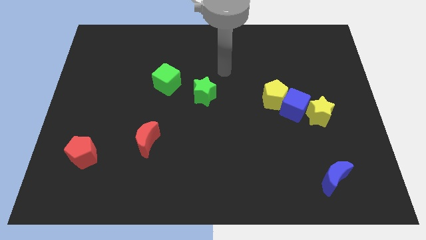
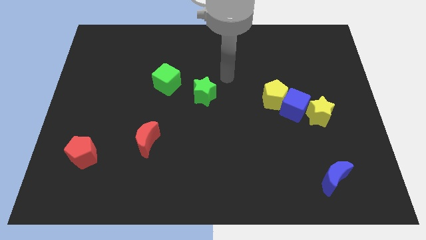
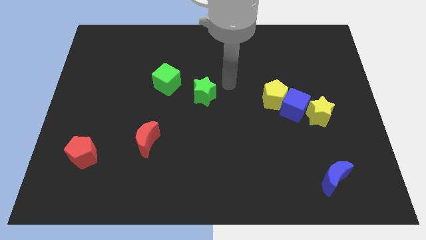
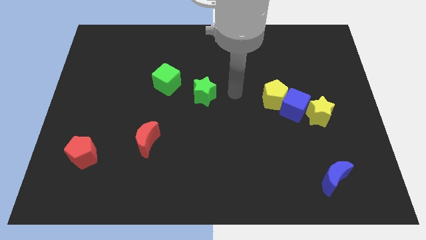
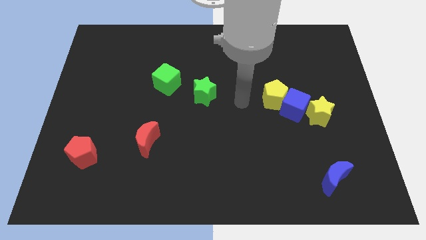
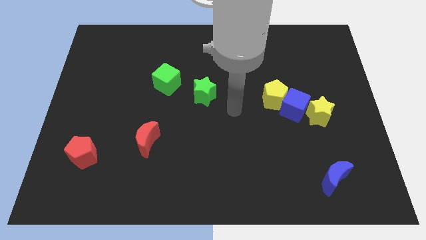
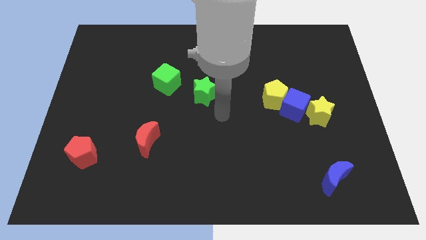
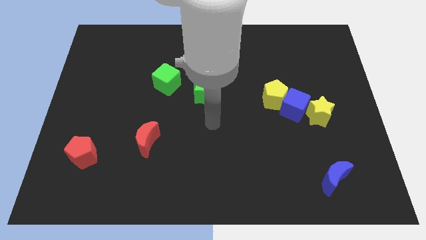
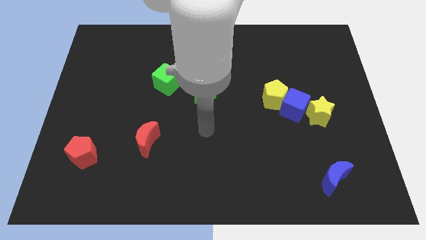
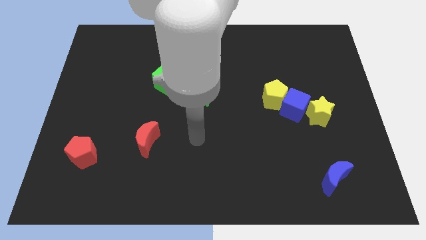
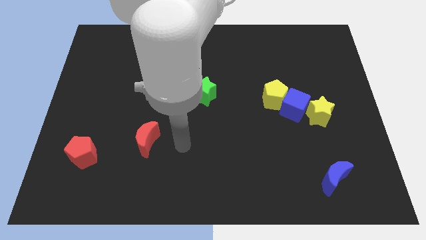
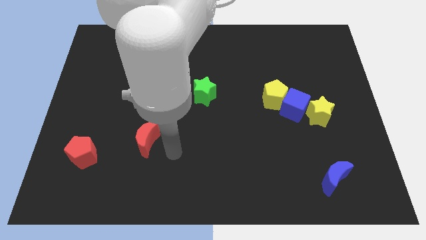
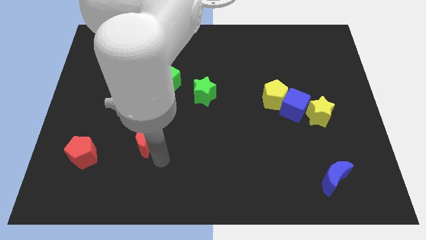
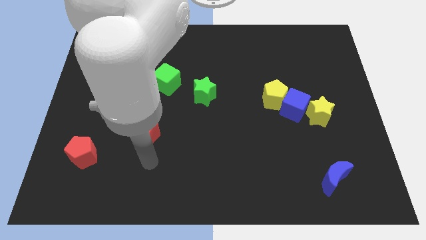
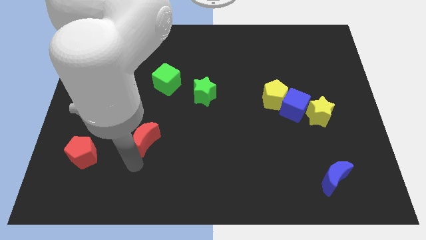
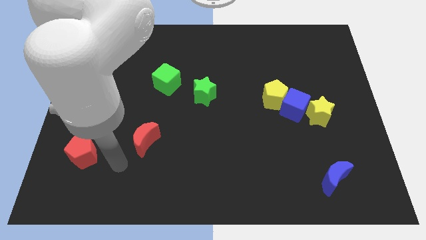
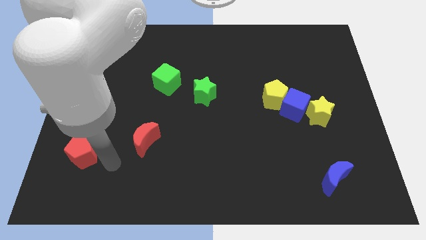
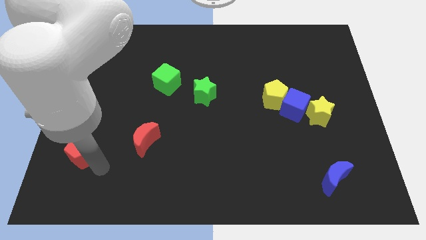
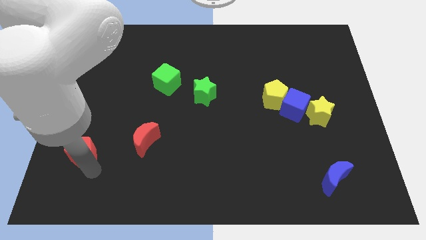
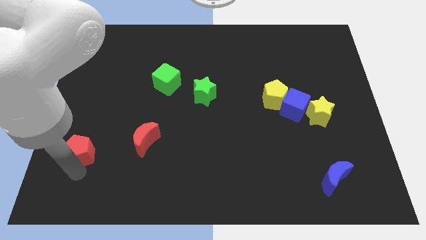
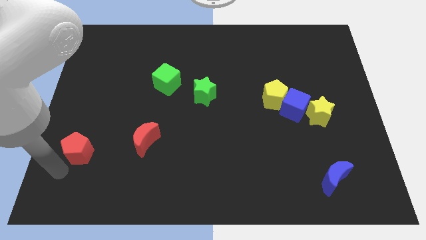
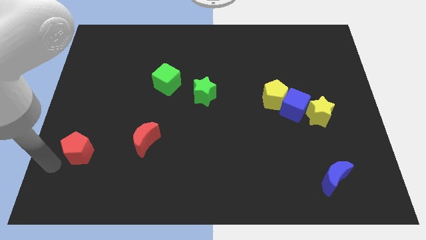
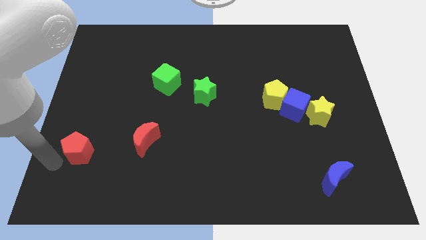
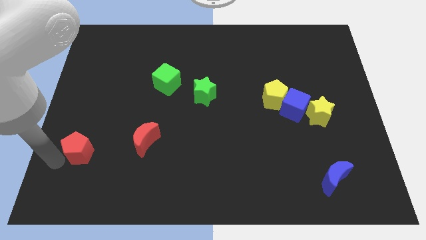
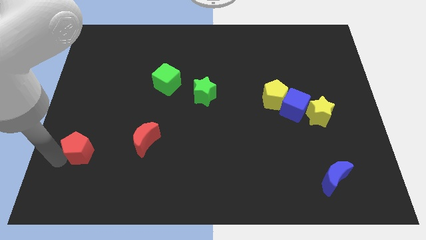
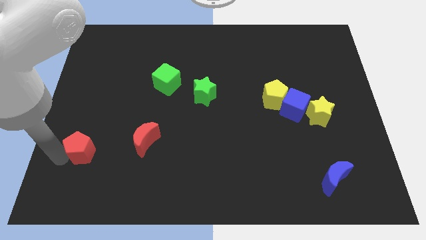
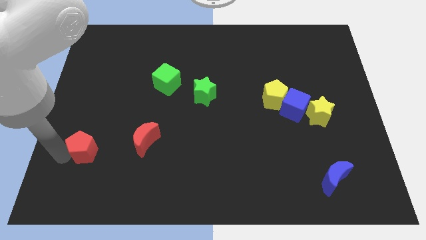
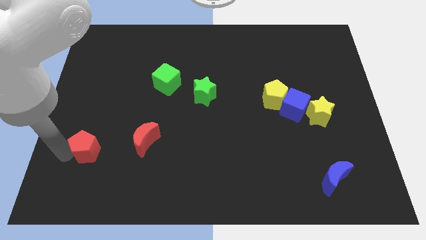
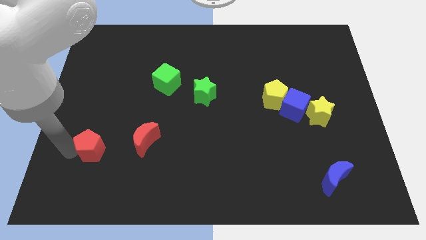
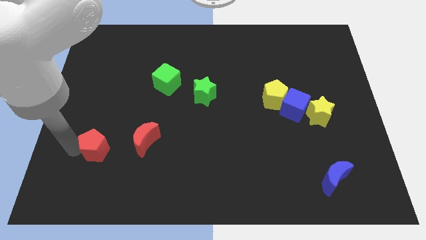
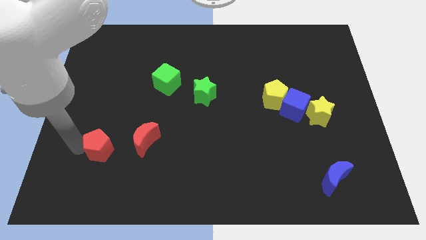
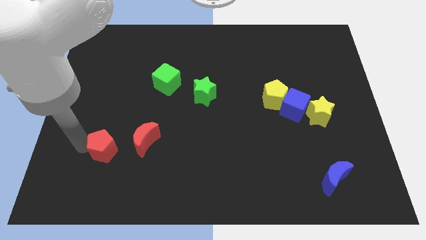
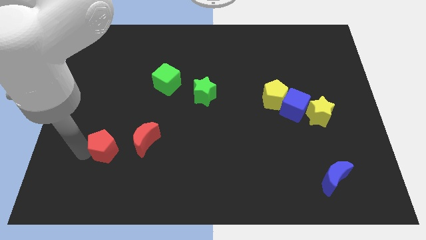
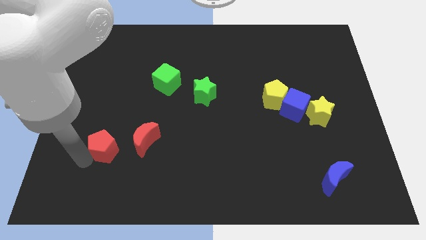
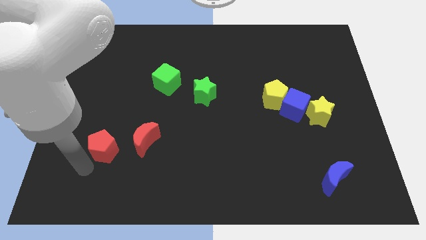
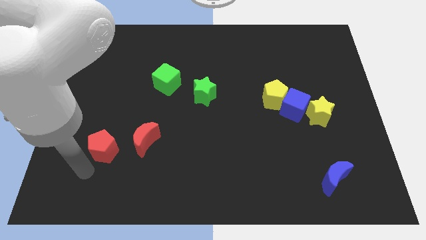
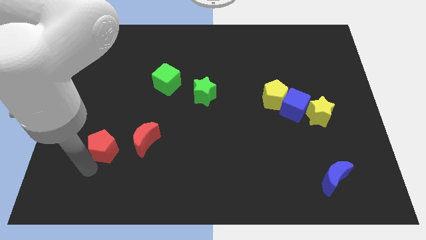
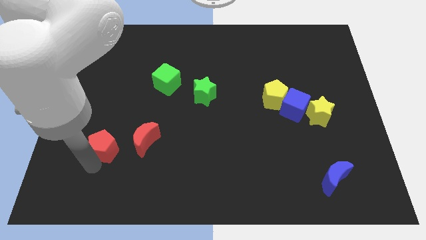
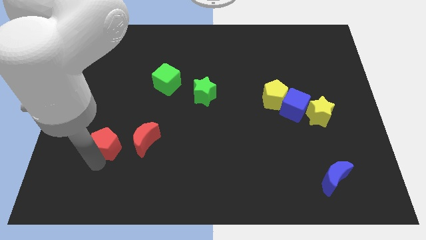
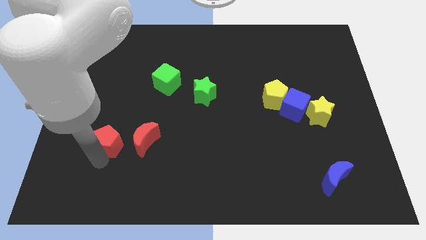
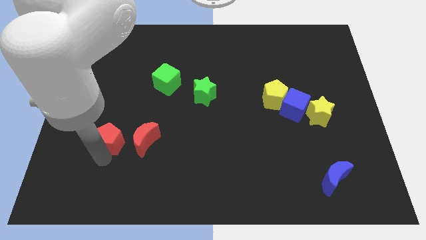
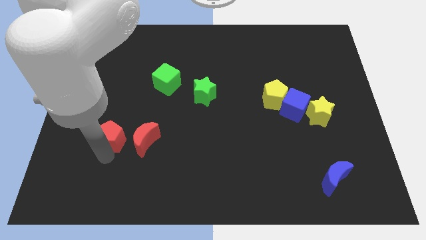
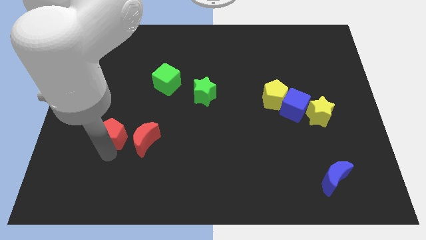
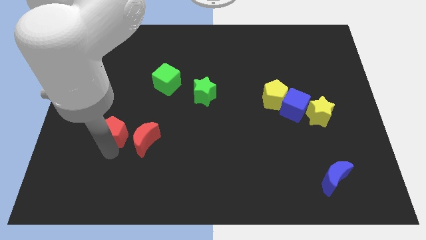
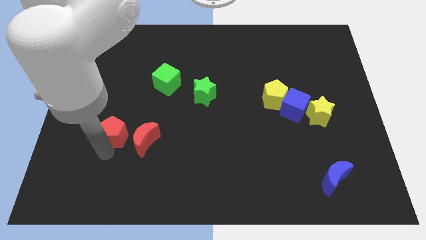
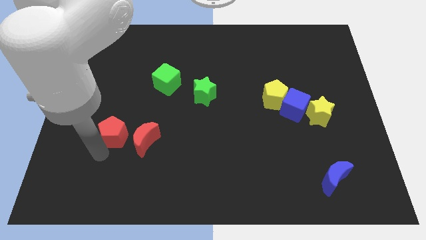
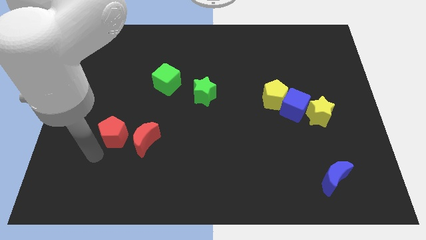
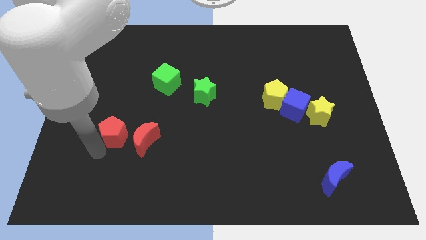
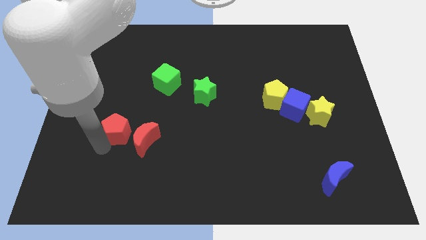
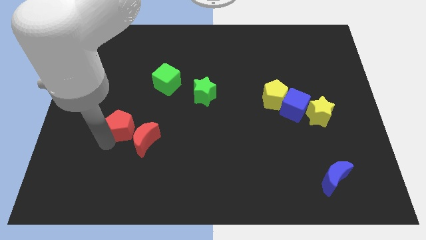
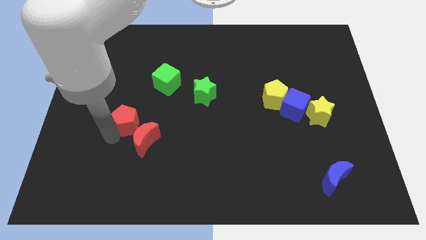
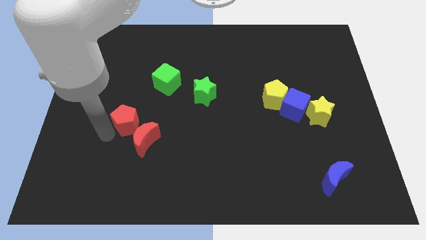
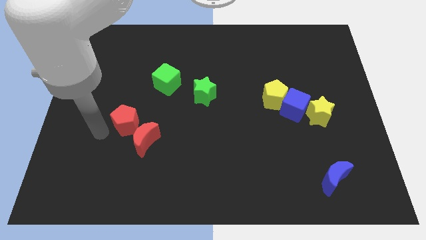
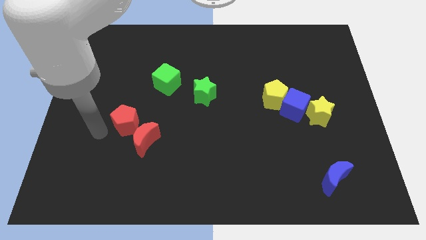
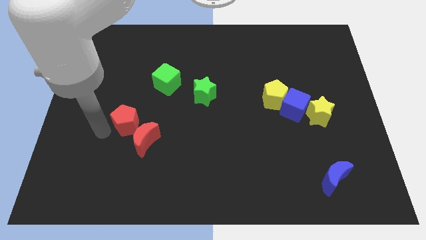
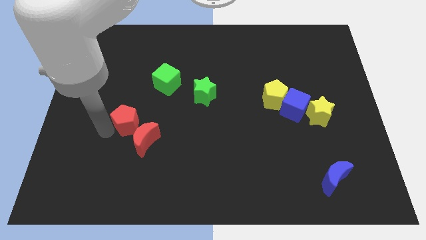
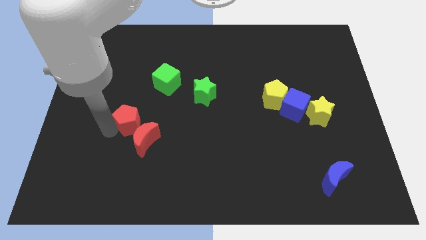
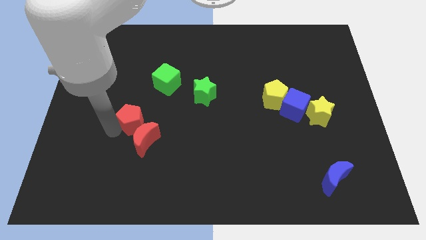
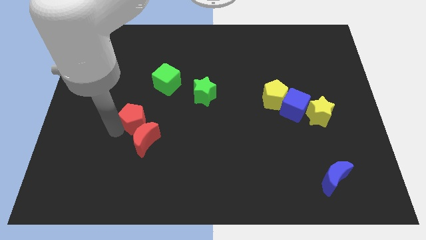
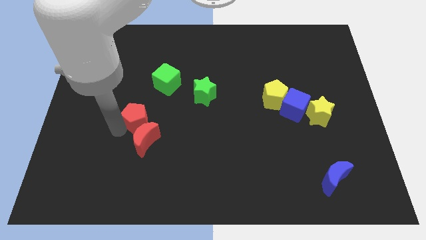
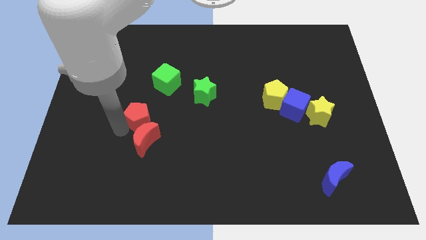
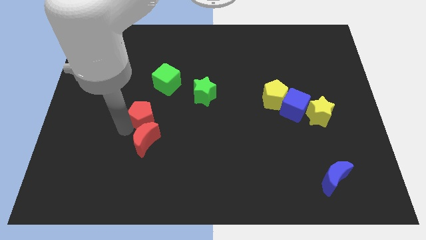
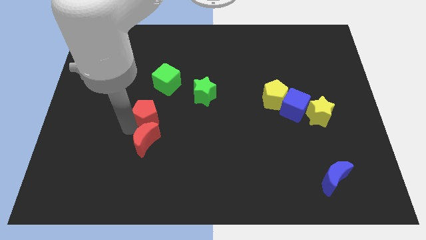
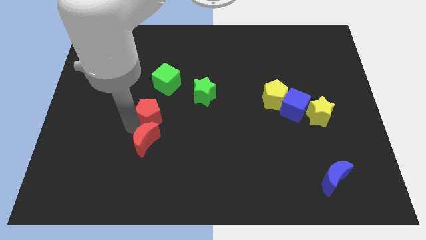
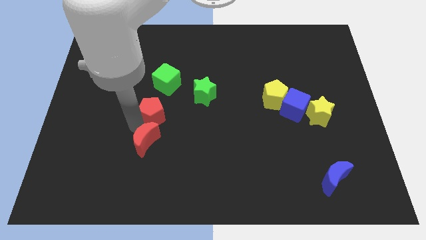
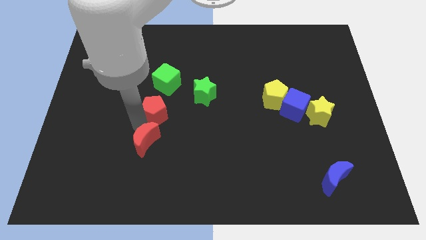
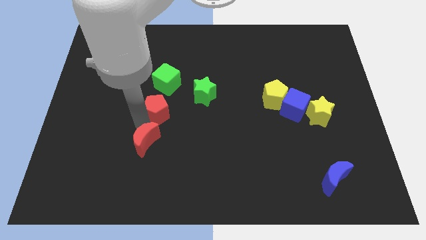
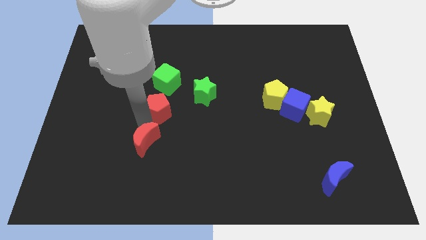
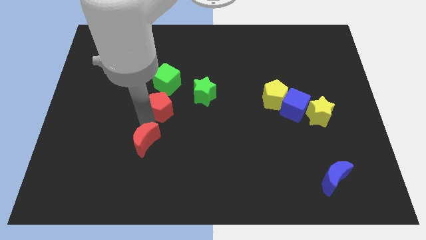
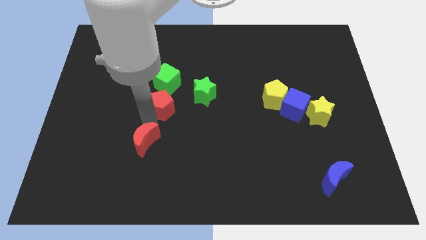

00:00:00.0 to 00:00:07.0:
move the red pentagon upwards and then to the right

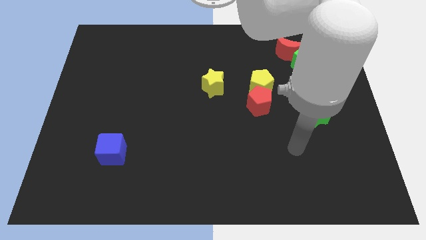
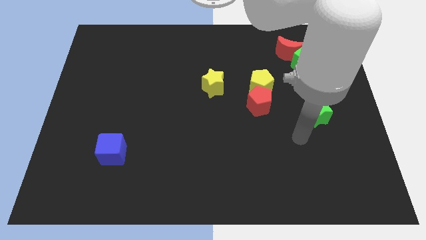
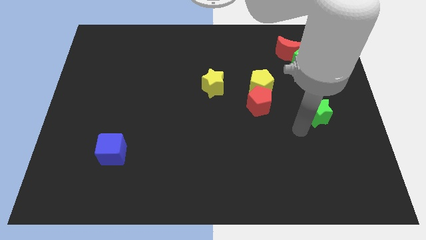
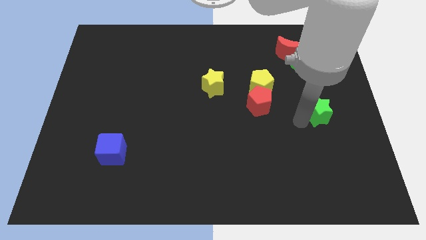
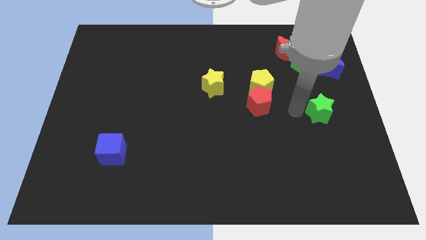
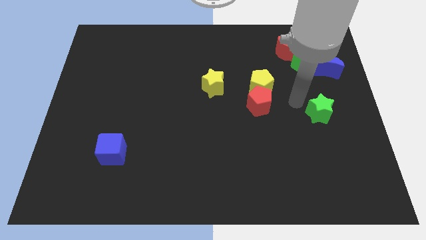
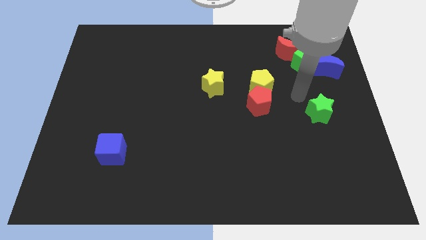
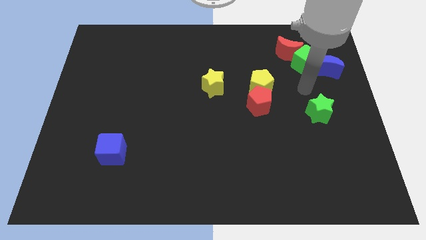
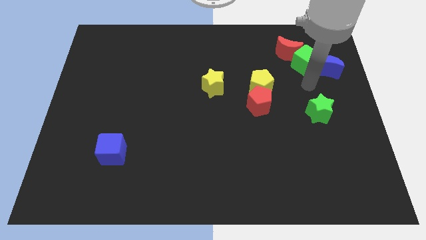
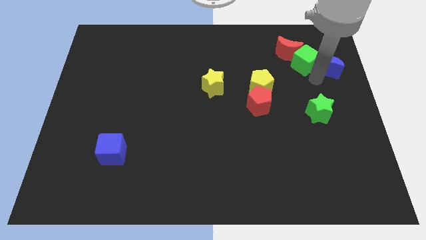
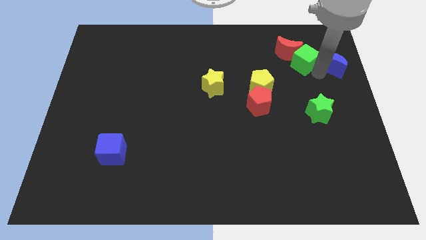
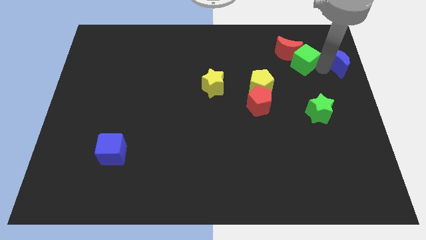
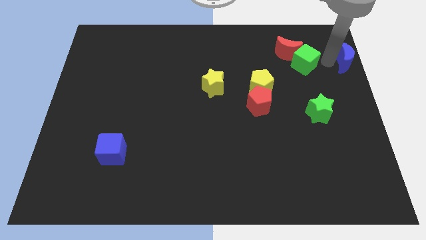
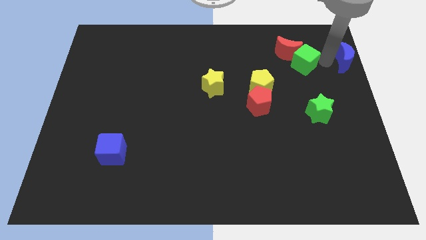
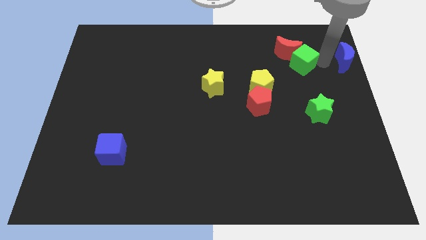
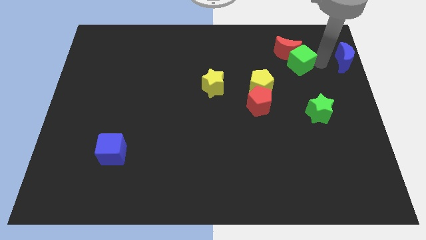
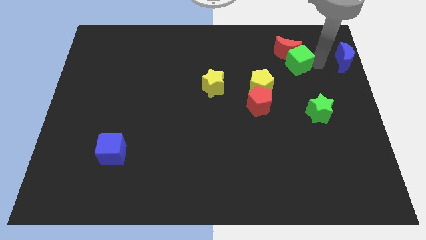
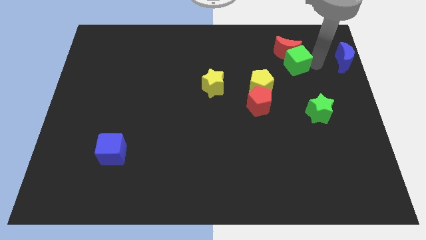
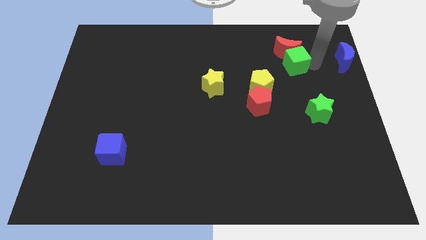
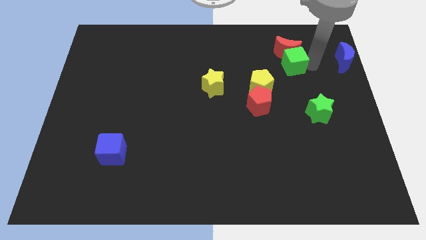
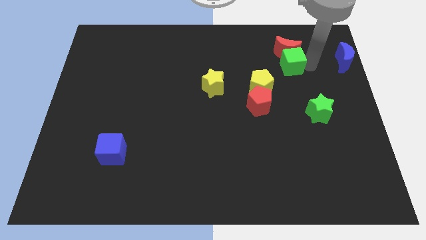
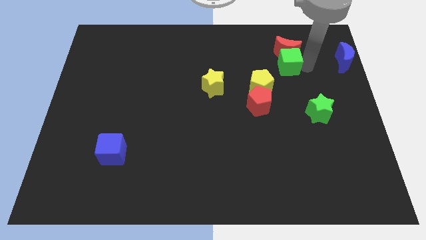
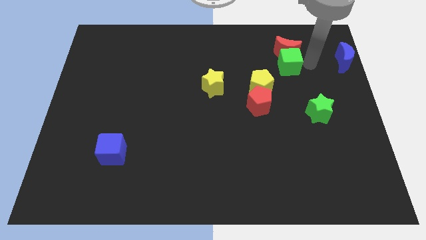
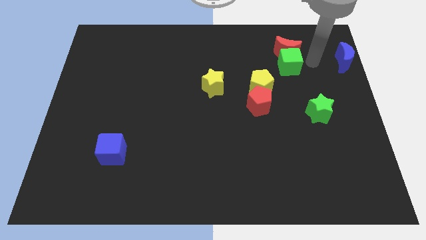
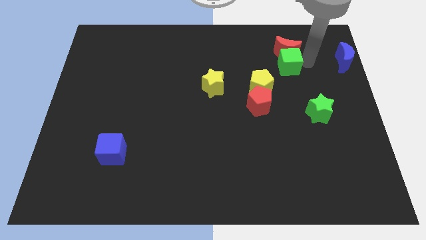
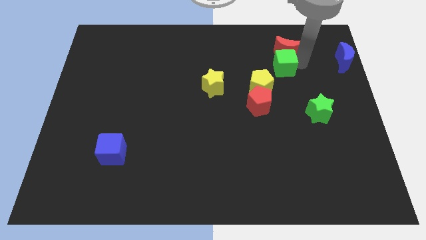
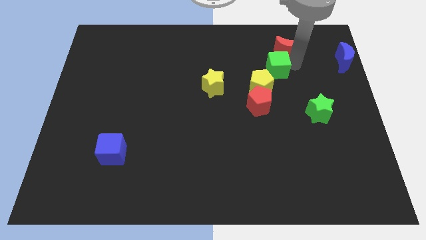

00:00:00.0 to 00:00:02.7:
push the green cube a little left
